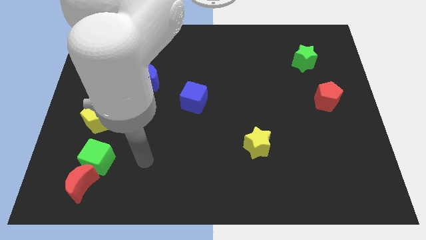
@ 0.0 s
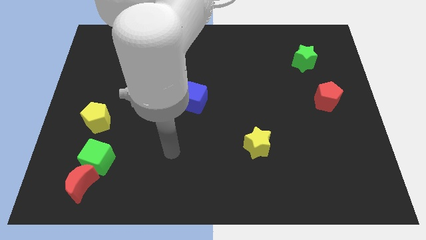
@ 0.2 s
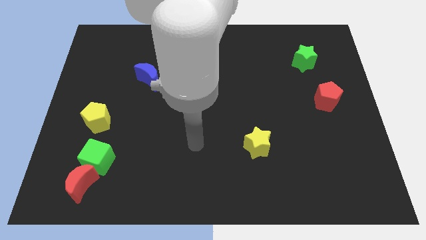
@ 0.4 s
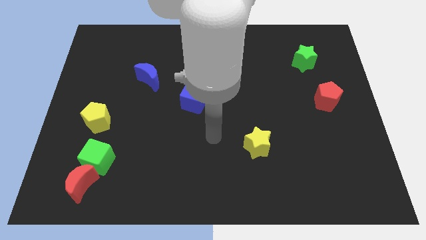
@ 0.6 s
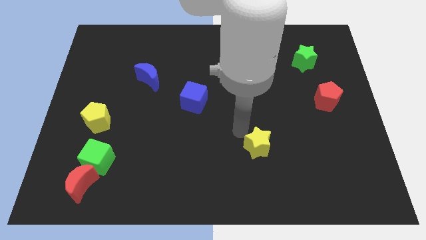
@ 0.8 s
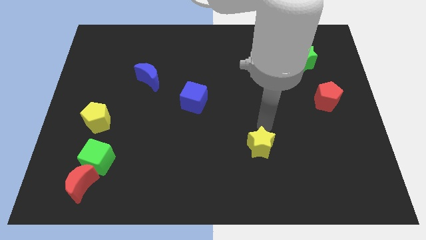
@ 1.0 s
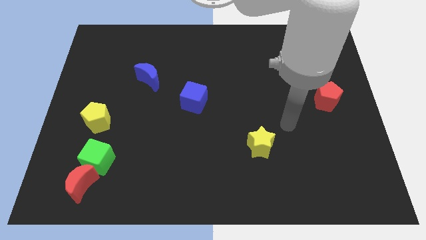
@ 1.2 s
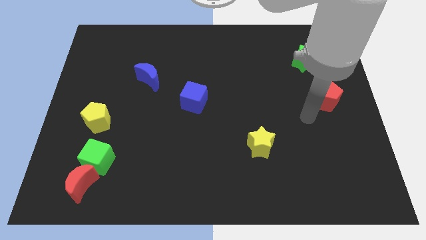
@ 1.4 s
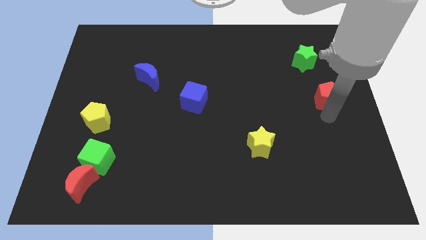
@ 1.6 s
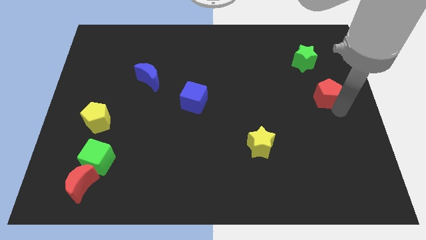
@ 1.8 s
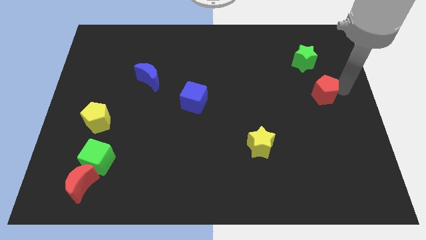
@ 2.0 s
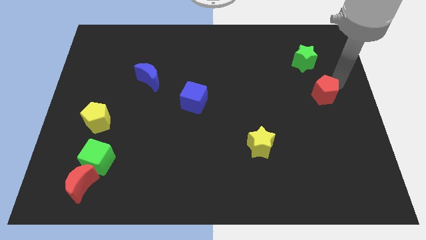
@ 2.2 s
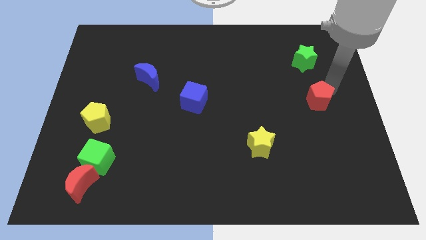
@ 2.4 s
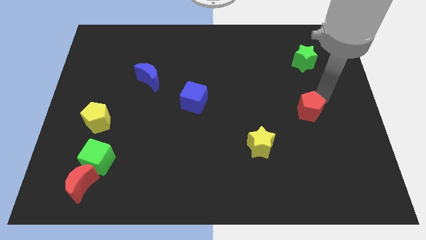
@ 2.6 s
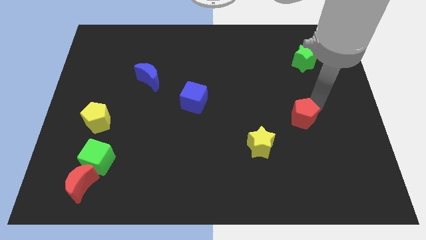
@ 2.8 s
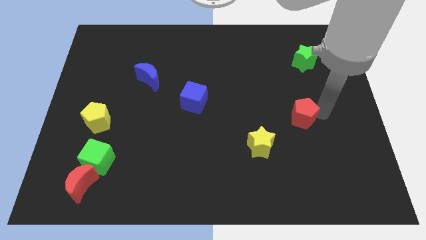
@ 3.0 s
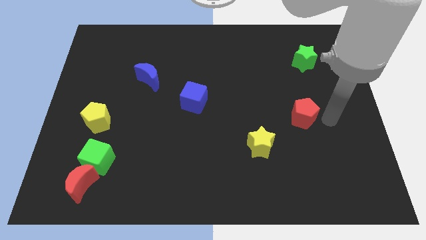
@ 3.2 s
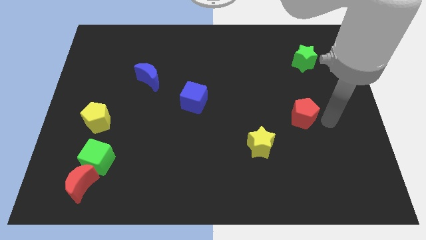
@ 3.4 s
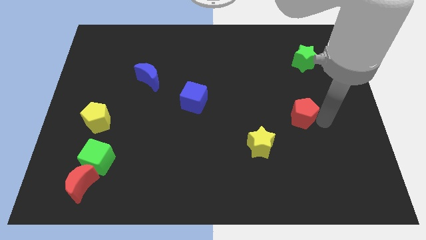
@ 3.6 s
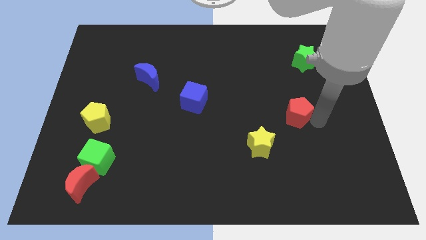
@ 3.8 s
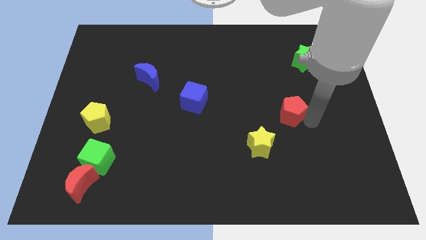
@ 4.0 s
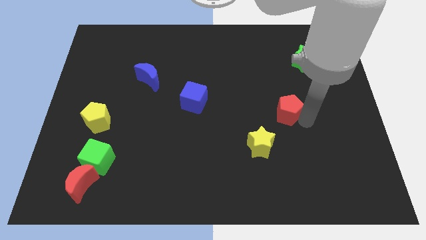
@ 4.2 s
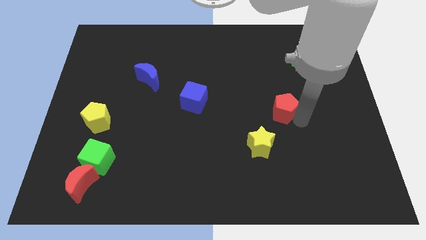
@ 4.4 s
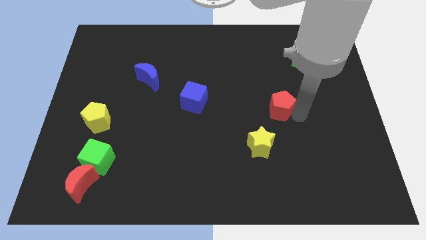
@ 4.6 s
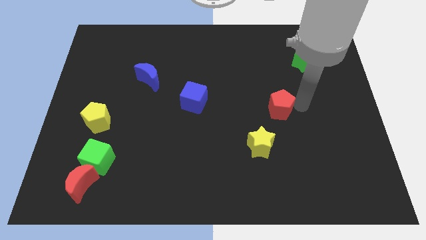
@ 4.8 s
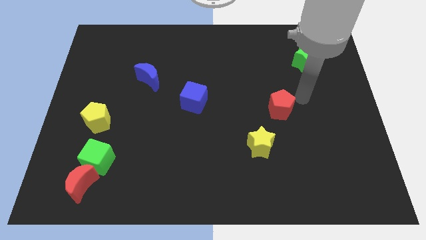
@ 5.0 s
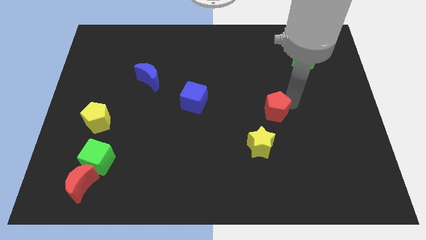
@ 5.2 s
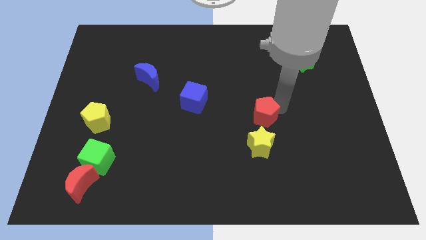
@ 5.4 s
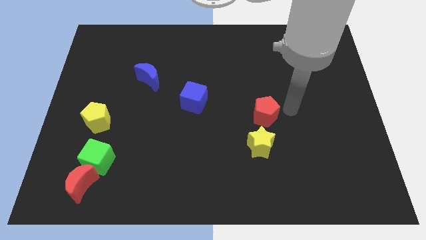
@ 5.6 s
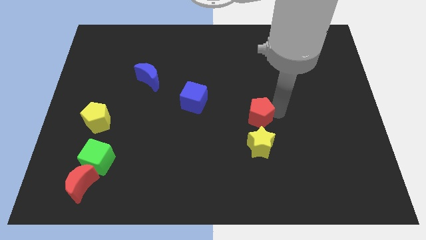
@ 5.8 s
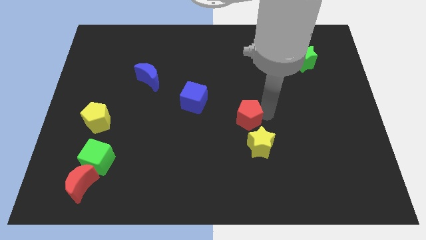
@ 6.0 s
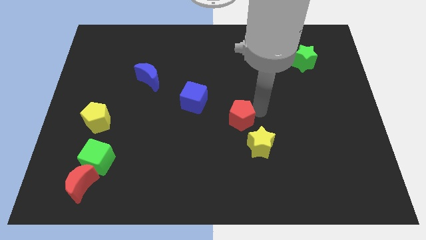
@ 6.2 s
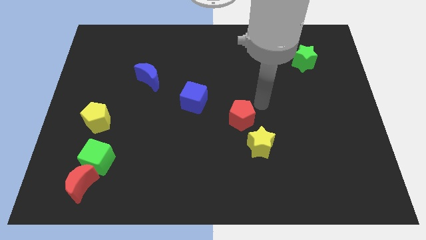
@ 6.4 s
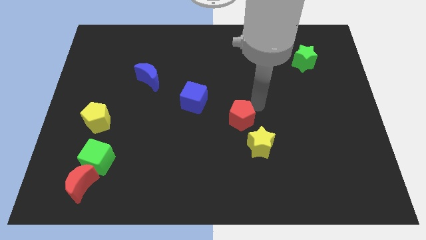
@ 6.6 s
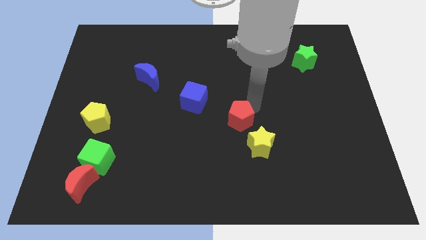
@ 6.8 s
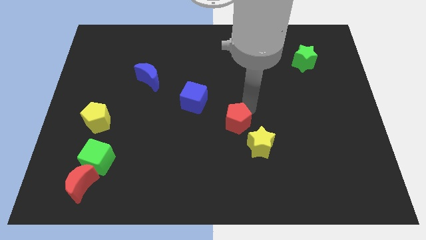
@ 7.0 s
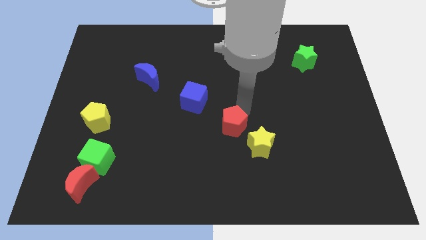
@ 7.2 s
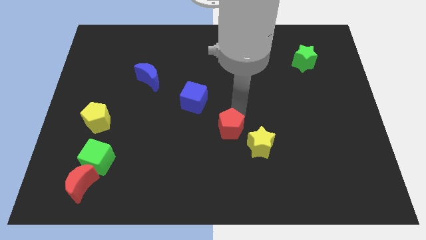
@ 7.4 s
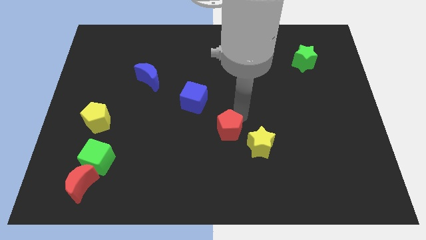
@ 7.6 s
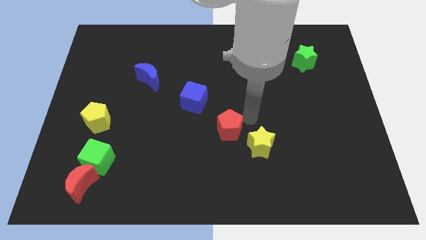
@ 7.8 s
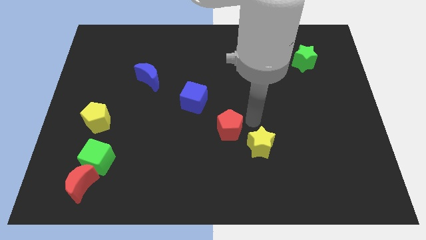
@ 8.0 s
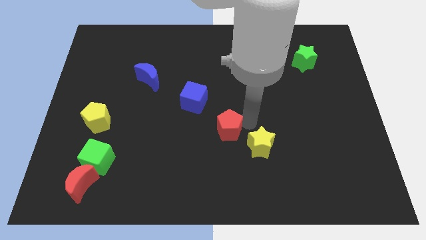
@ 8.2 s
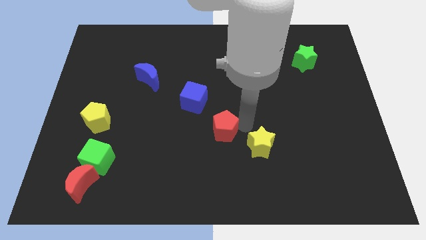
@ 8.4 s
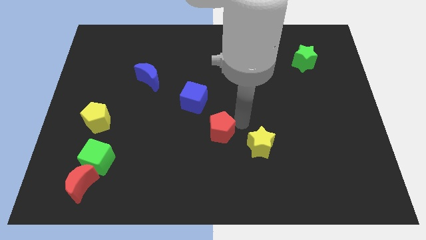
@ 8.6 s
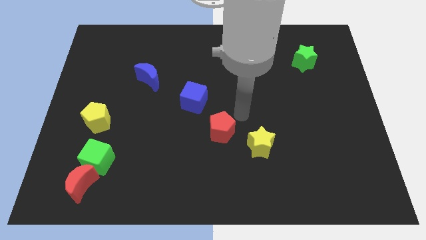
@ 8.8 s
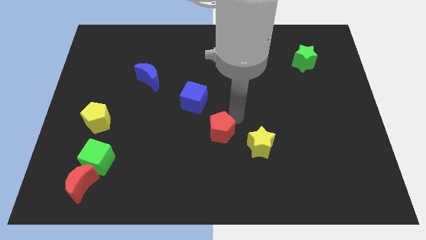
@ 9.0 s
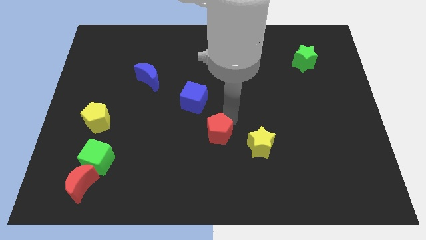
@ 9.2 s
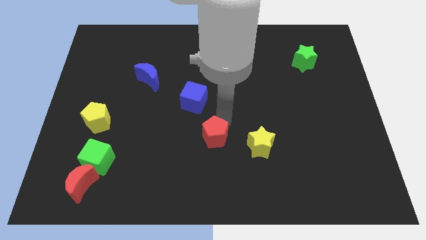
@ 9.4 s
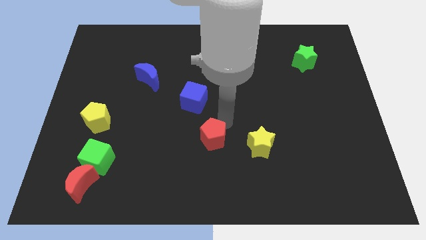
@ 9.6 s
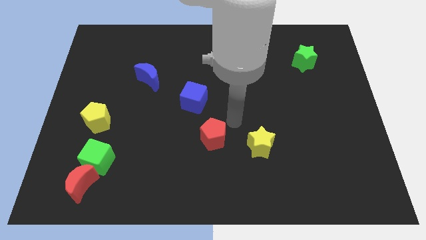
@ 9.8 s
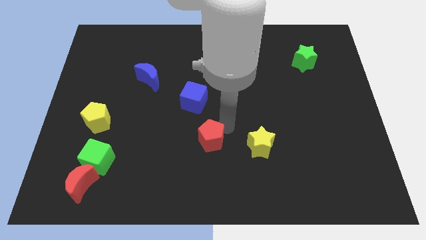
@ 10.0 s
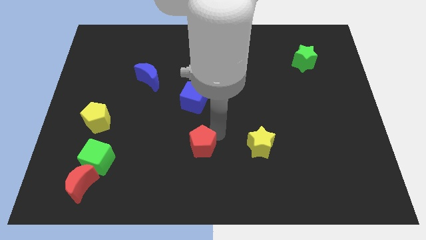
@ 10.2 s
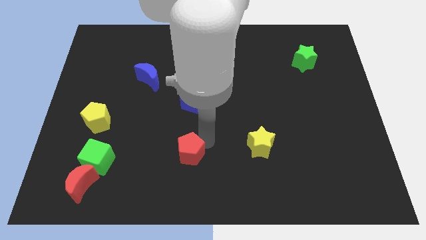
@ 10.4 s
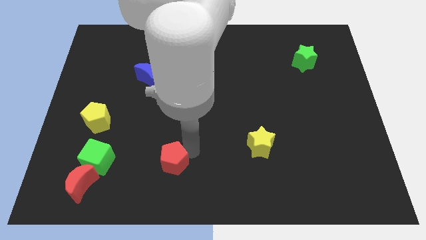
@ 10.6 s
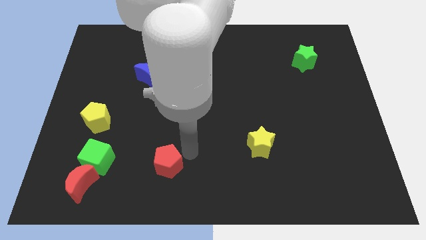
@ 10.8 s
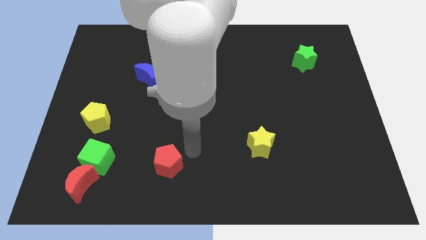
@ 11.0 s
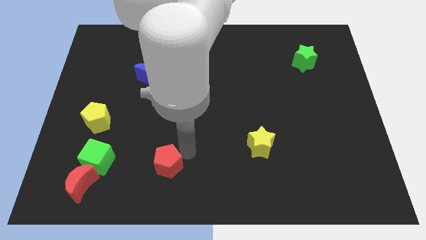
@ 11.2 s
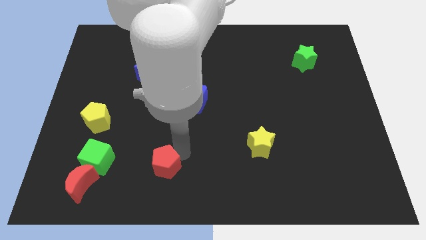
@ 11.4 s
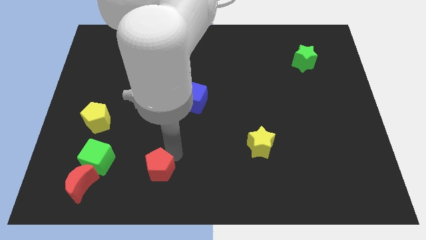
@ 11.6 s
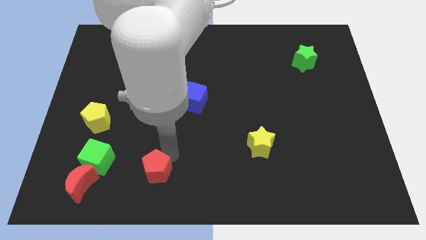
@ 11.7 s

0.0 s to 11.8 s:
move the red pentagon to the right of the red moon

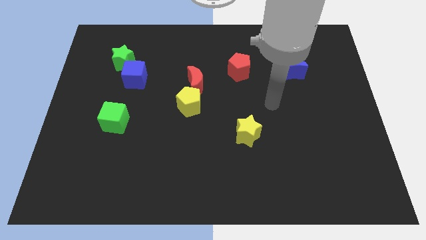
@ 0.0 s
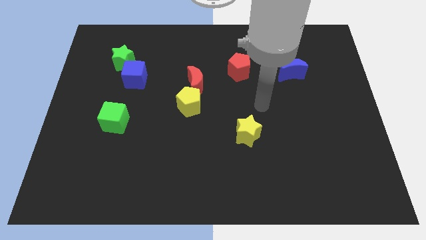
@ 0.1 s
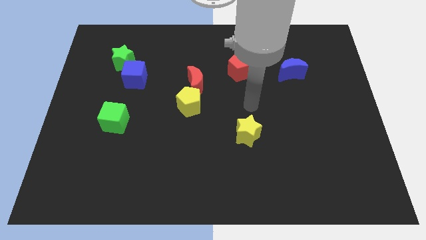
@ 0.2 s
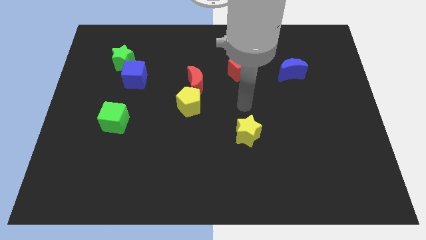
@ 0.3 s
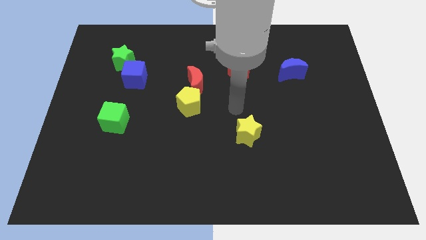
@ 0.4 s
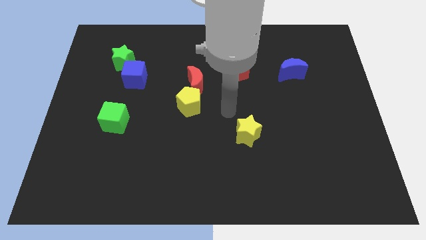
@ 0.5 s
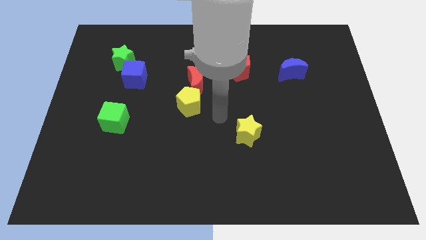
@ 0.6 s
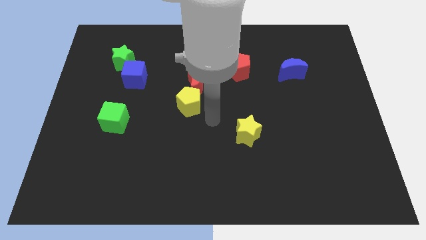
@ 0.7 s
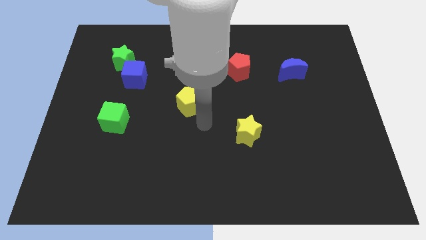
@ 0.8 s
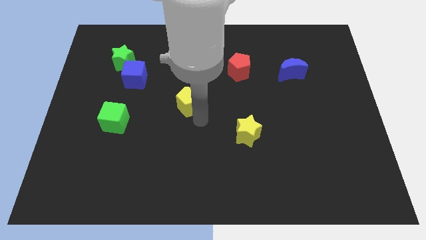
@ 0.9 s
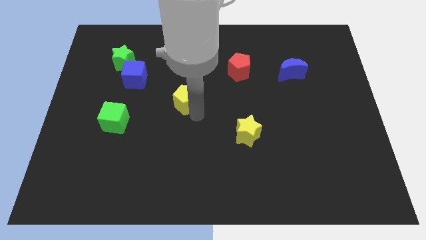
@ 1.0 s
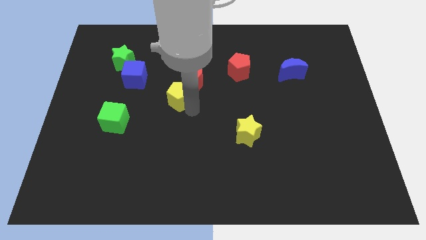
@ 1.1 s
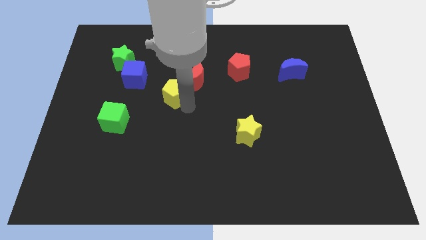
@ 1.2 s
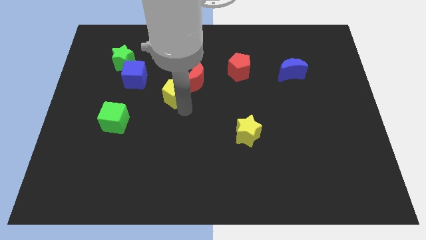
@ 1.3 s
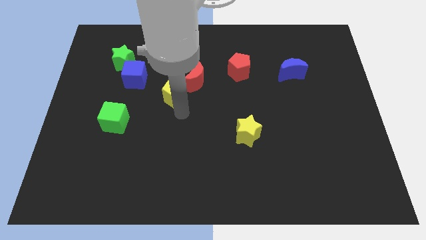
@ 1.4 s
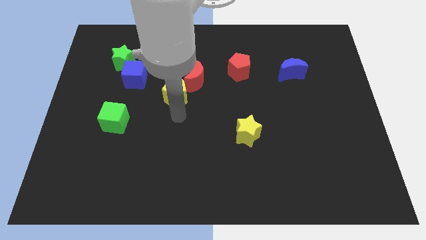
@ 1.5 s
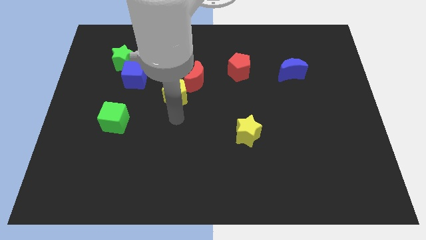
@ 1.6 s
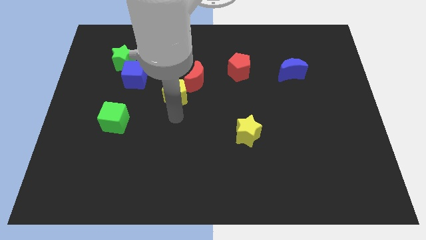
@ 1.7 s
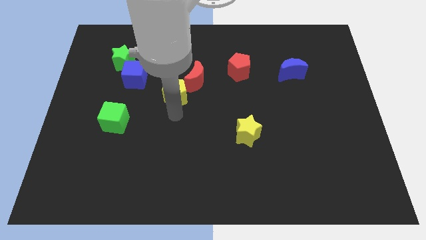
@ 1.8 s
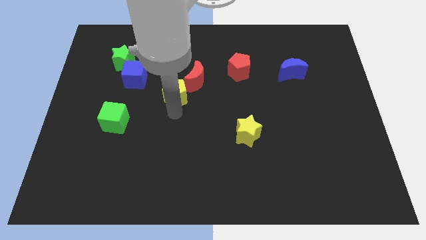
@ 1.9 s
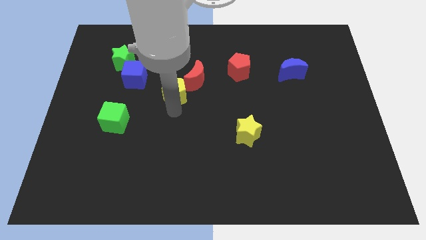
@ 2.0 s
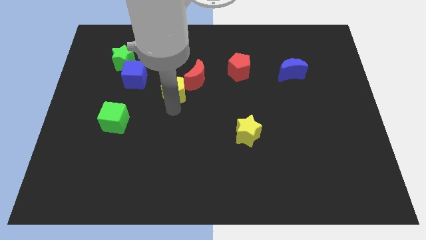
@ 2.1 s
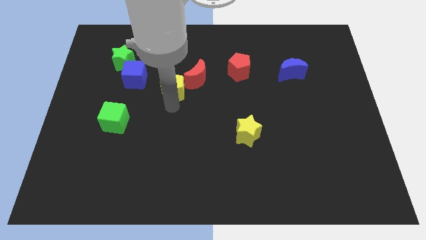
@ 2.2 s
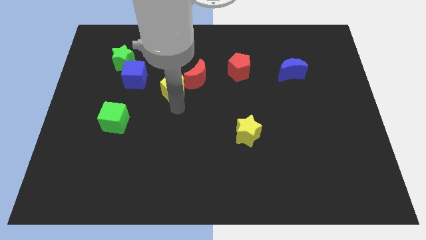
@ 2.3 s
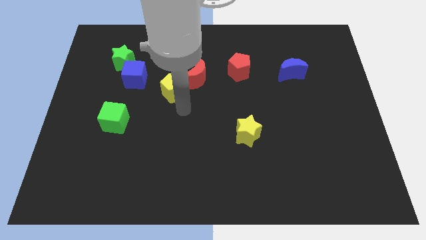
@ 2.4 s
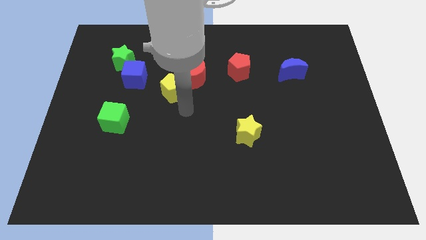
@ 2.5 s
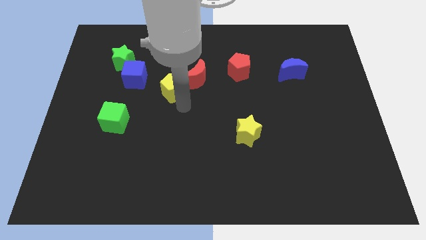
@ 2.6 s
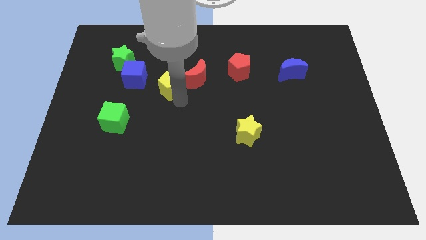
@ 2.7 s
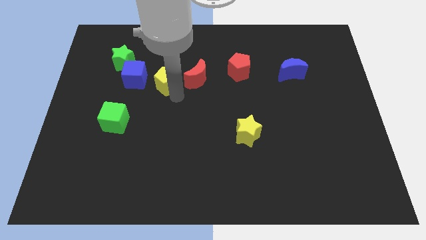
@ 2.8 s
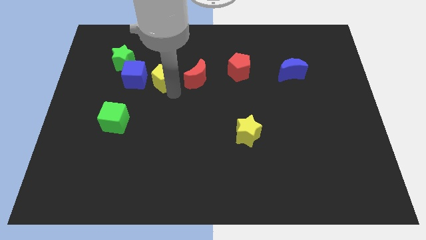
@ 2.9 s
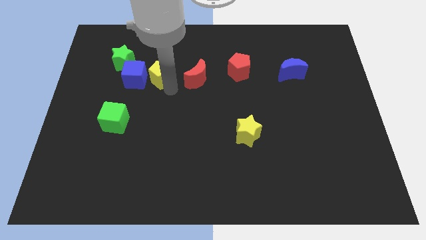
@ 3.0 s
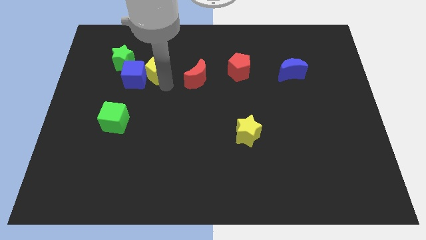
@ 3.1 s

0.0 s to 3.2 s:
put the yellow pentagon just right of the green star
